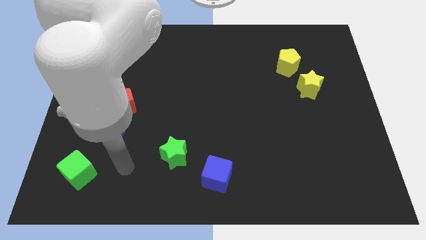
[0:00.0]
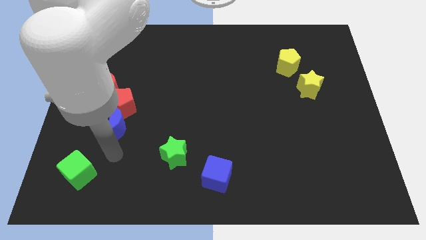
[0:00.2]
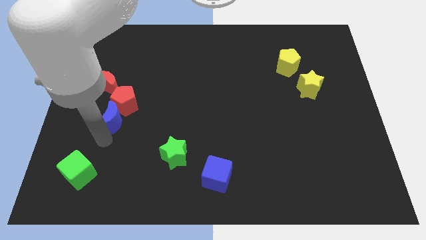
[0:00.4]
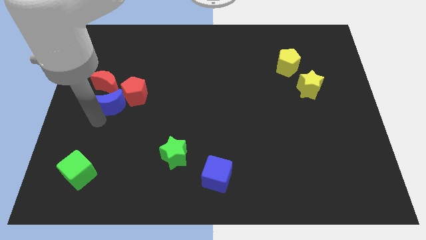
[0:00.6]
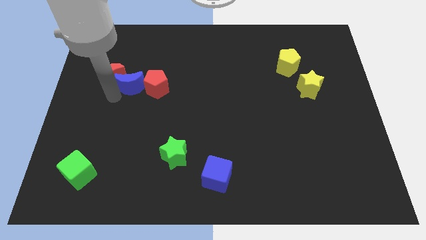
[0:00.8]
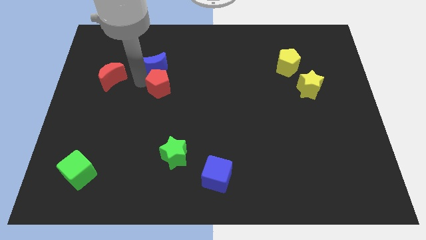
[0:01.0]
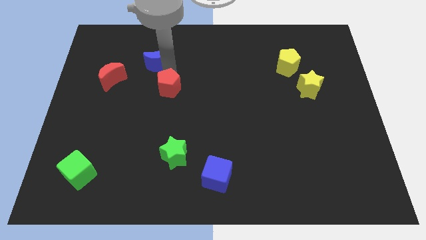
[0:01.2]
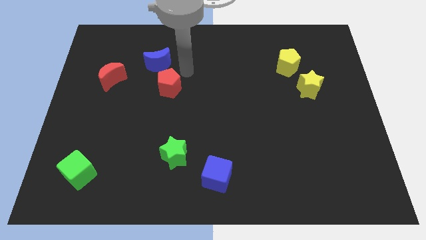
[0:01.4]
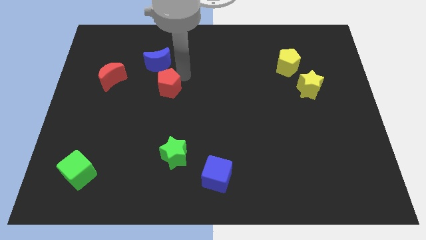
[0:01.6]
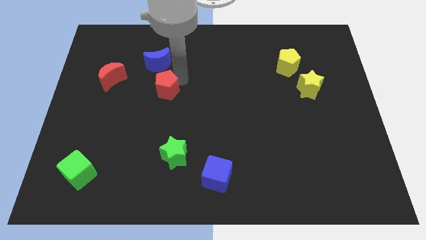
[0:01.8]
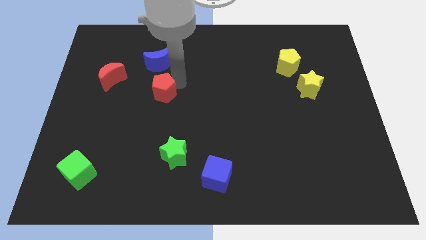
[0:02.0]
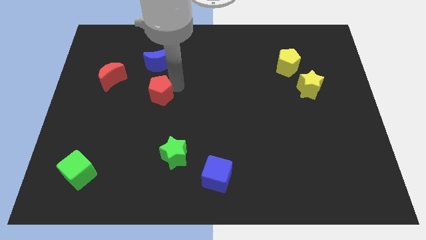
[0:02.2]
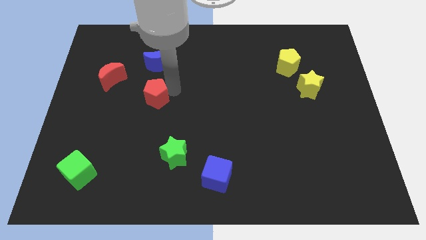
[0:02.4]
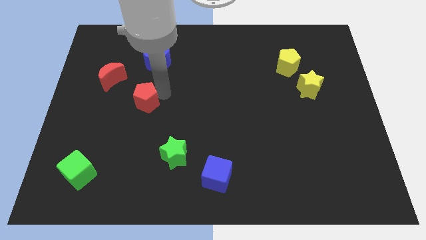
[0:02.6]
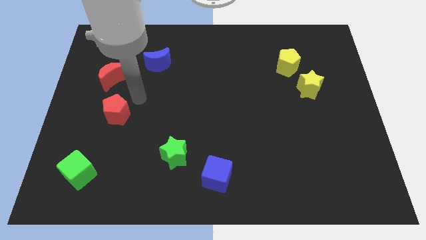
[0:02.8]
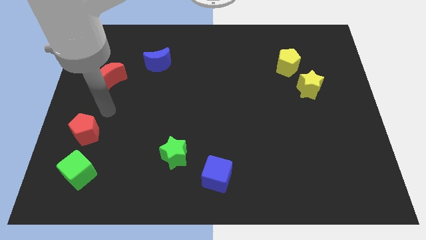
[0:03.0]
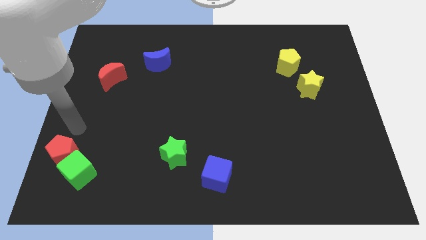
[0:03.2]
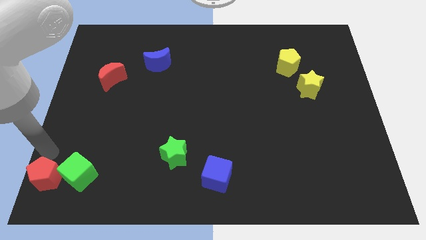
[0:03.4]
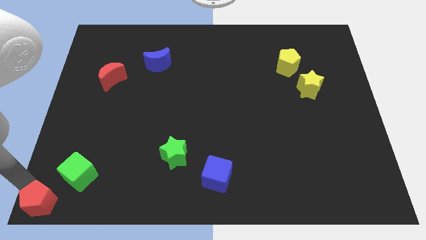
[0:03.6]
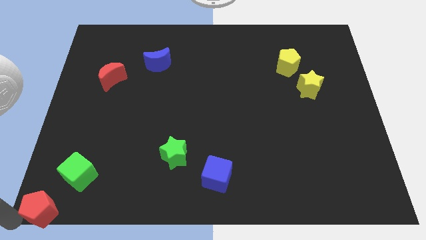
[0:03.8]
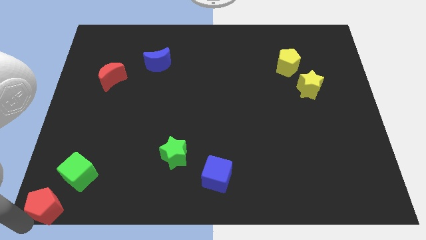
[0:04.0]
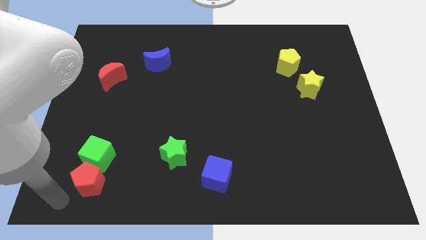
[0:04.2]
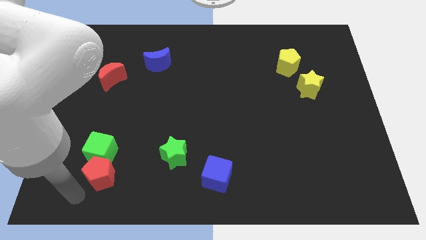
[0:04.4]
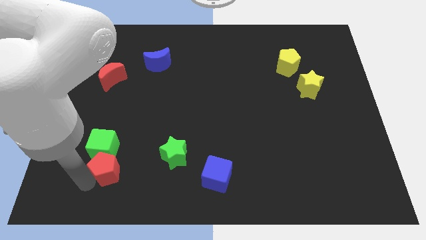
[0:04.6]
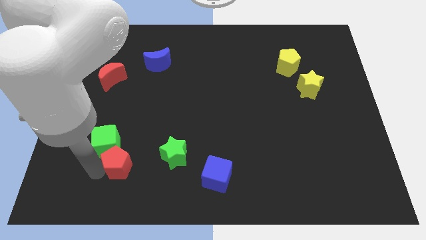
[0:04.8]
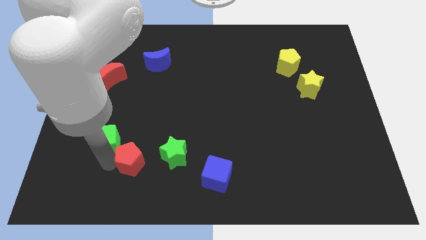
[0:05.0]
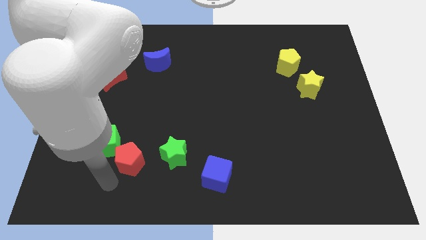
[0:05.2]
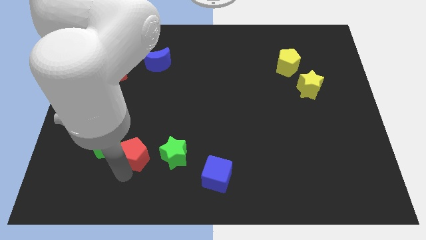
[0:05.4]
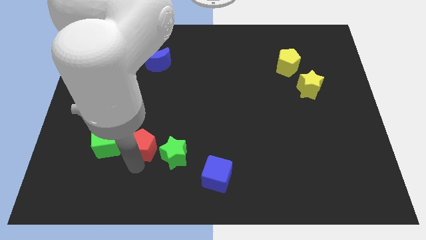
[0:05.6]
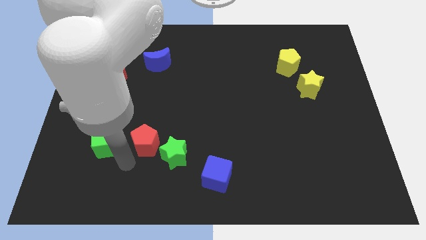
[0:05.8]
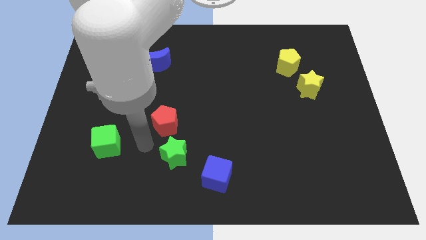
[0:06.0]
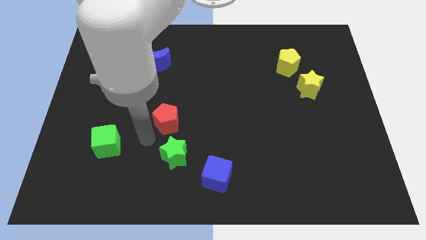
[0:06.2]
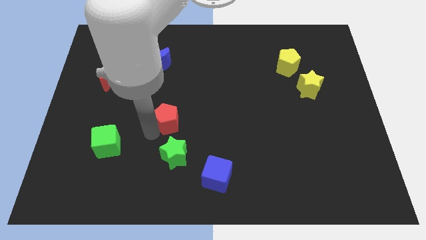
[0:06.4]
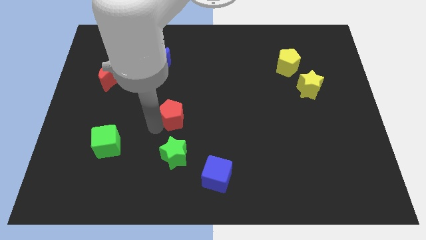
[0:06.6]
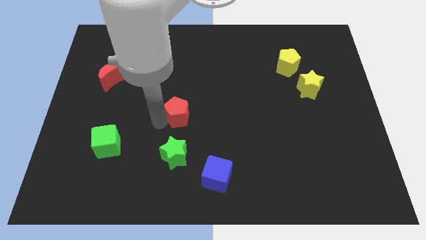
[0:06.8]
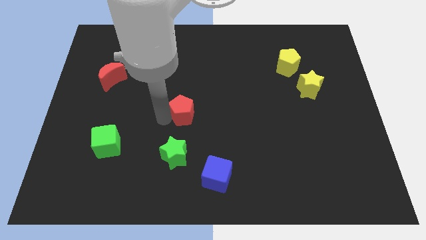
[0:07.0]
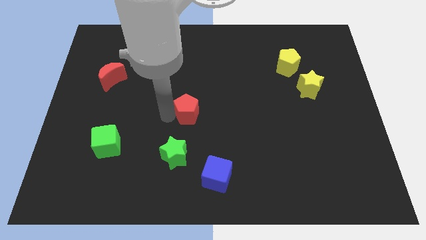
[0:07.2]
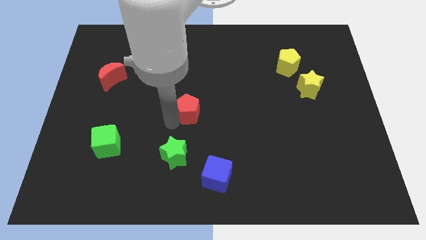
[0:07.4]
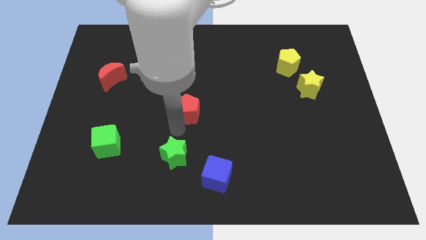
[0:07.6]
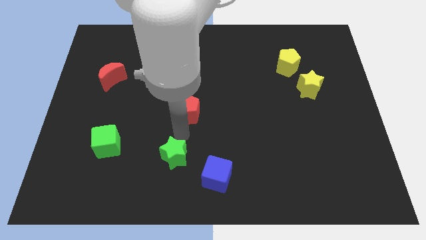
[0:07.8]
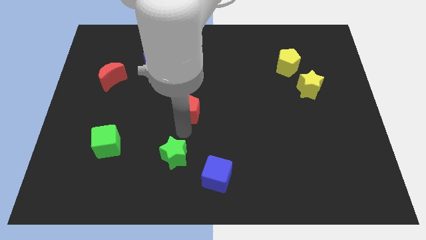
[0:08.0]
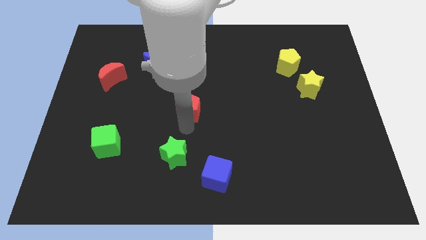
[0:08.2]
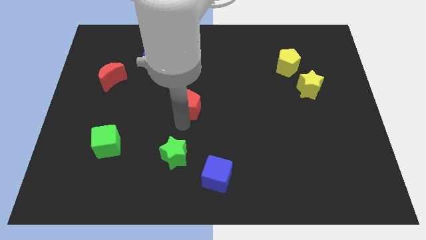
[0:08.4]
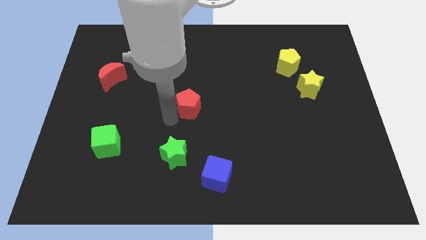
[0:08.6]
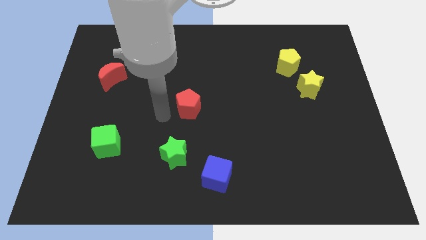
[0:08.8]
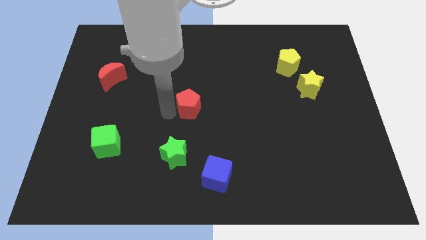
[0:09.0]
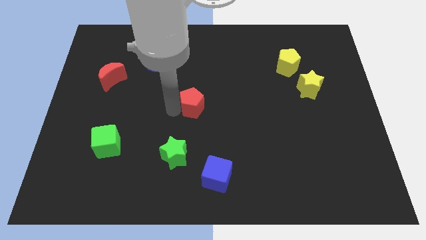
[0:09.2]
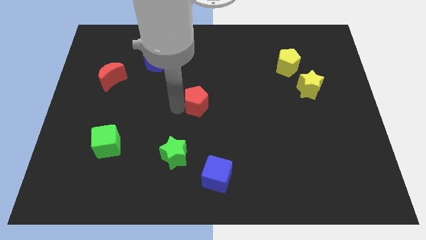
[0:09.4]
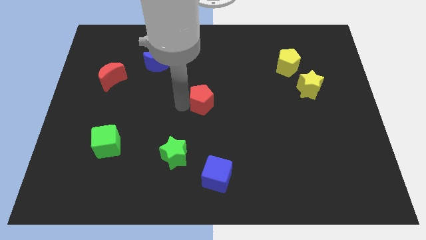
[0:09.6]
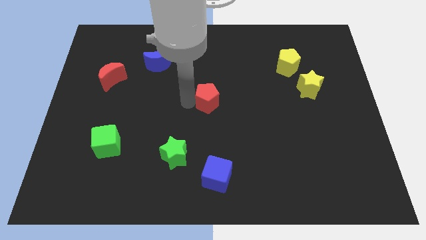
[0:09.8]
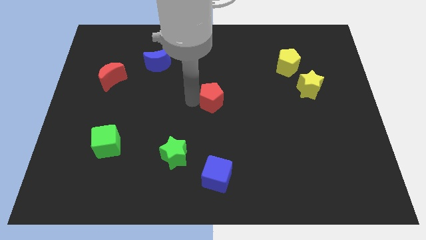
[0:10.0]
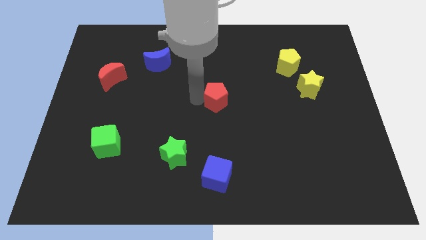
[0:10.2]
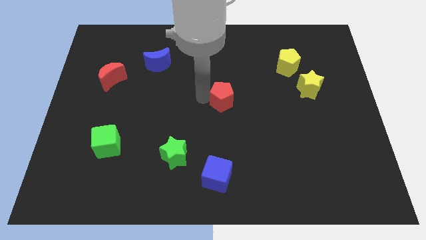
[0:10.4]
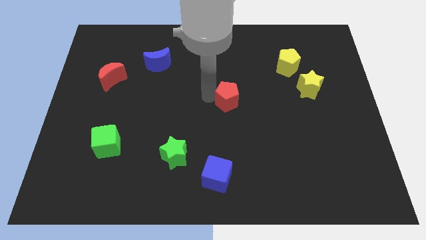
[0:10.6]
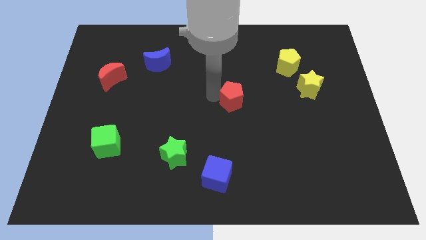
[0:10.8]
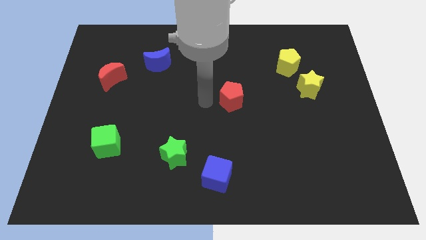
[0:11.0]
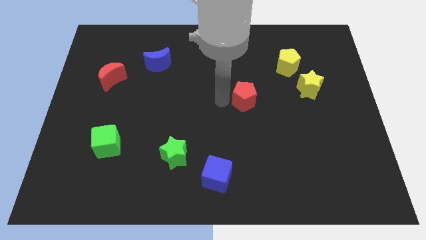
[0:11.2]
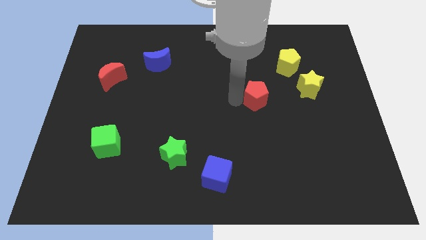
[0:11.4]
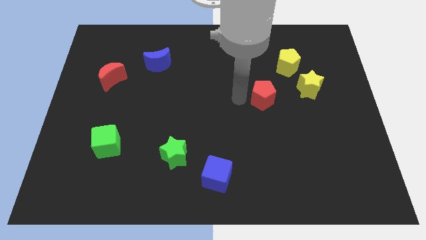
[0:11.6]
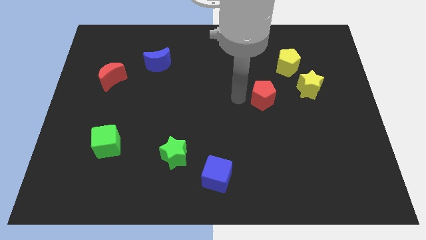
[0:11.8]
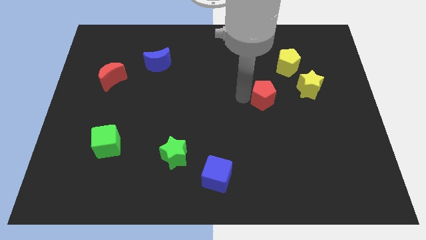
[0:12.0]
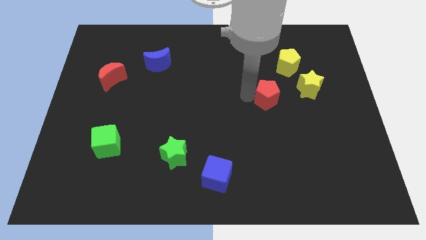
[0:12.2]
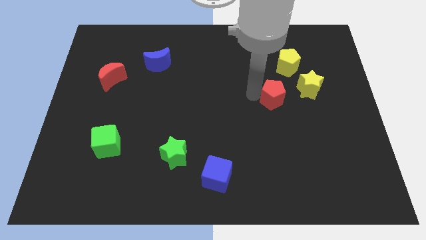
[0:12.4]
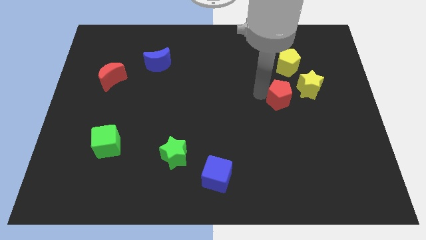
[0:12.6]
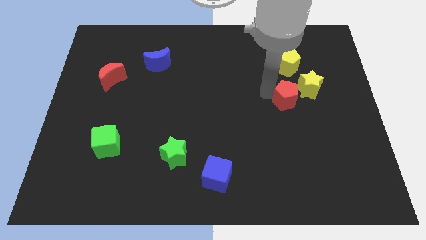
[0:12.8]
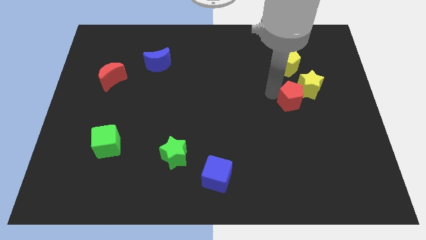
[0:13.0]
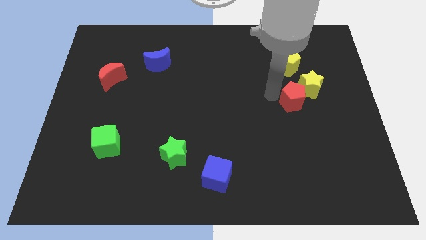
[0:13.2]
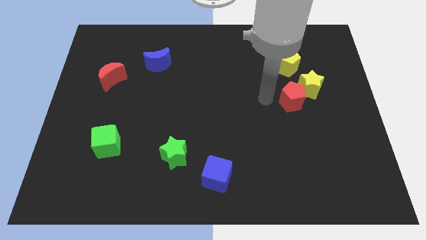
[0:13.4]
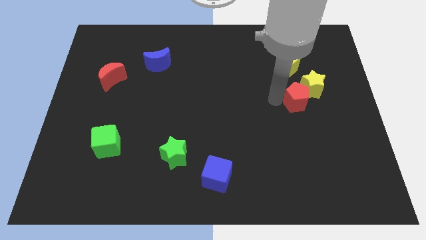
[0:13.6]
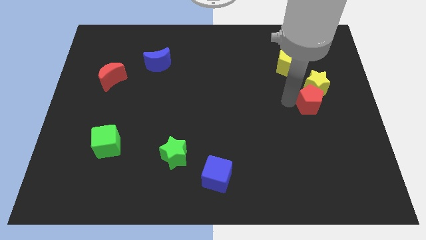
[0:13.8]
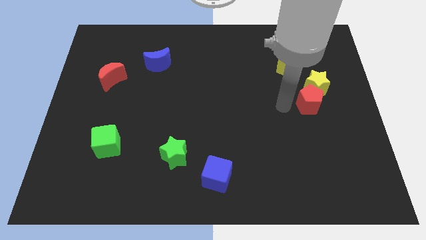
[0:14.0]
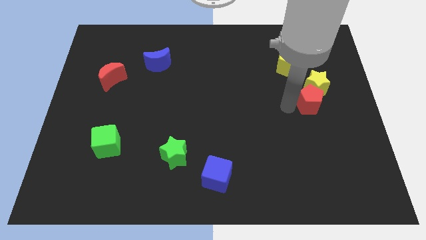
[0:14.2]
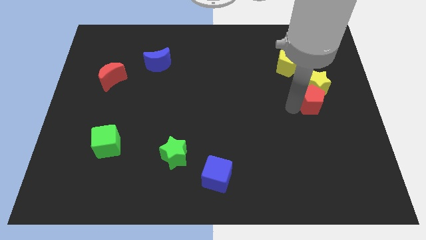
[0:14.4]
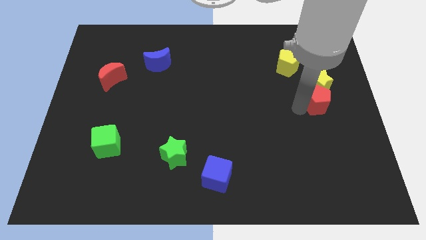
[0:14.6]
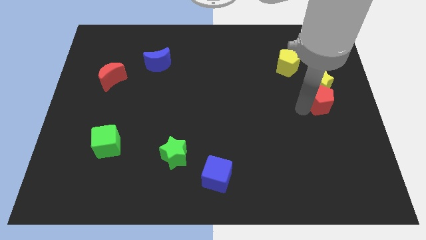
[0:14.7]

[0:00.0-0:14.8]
put the red pentagon to the right side
